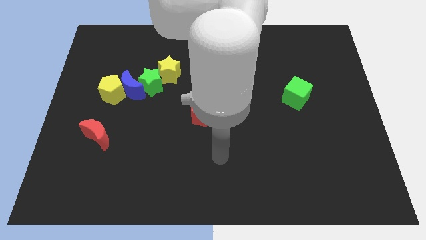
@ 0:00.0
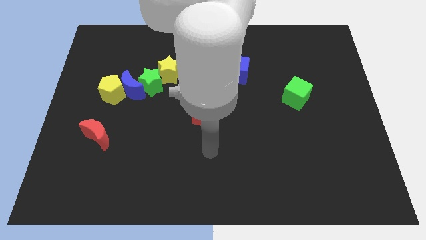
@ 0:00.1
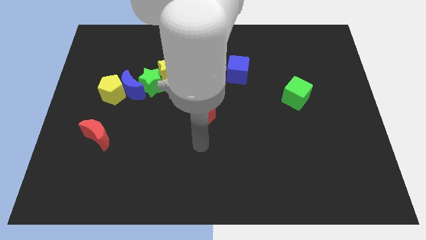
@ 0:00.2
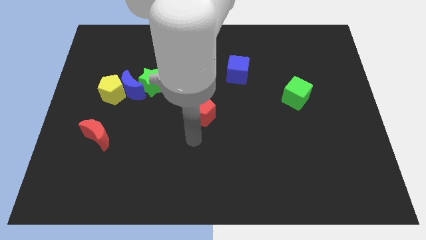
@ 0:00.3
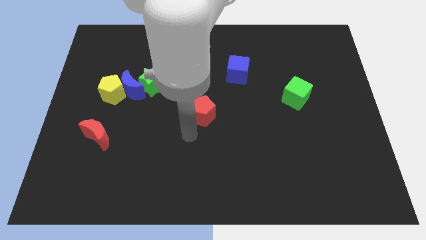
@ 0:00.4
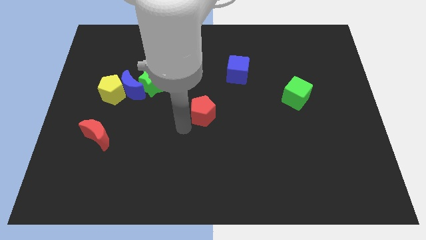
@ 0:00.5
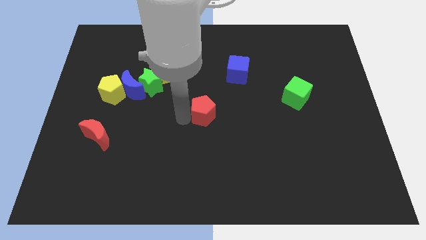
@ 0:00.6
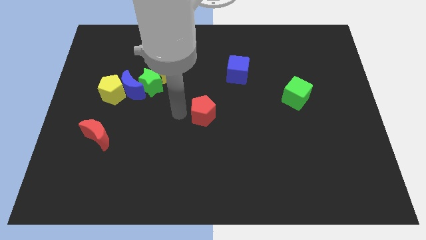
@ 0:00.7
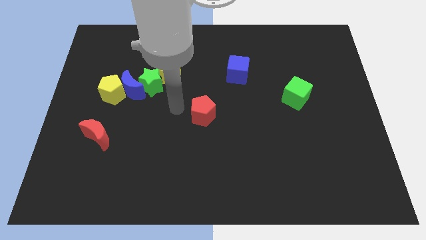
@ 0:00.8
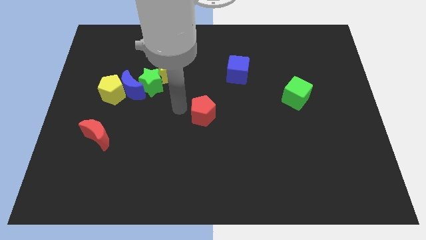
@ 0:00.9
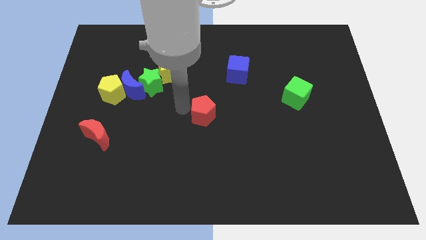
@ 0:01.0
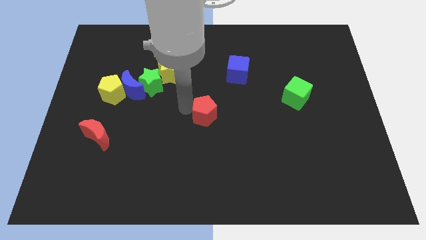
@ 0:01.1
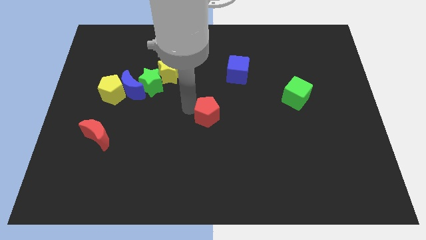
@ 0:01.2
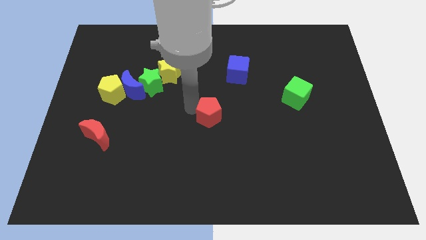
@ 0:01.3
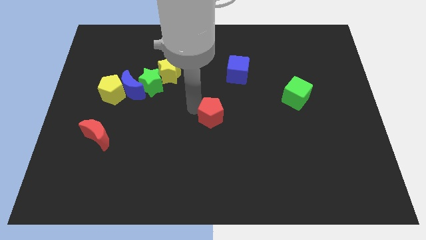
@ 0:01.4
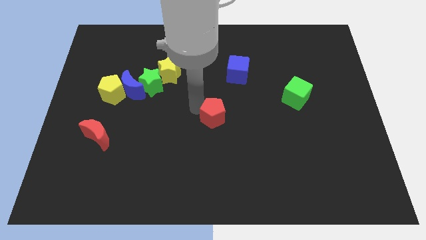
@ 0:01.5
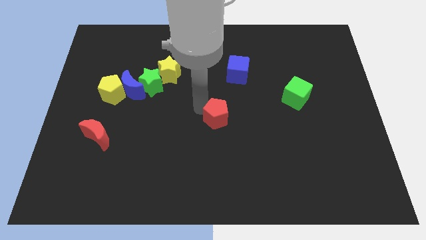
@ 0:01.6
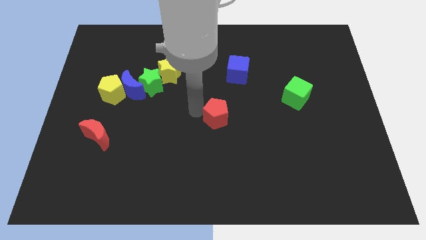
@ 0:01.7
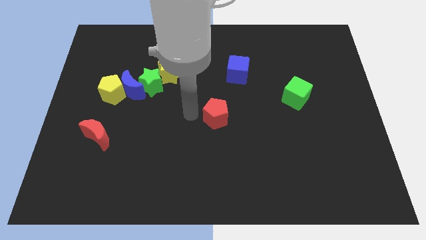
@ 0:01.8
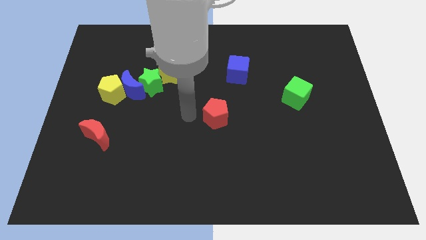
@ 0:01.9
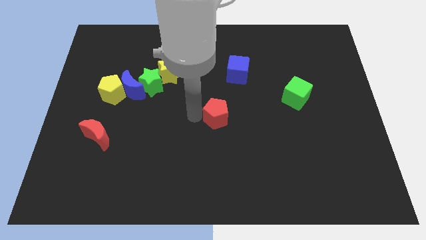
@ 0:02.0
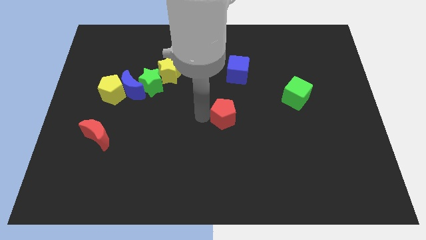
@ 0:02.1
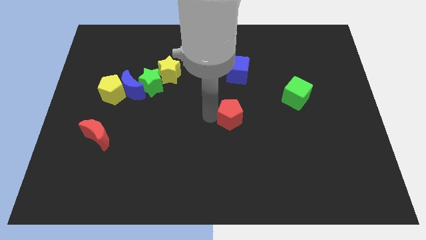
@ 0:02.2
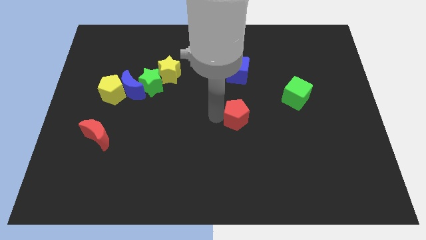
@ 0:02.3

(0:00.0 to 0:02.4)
slightly move the red pentagon right

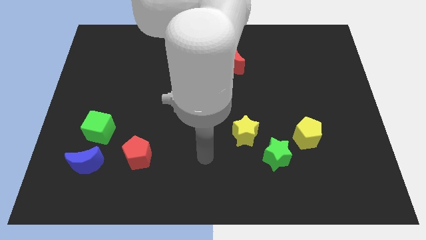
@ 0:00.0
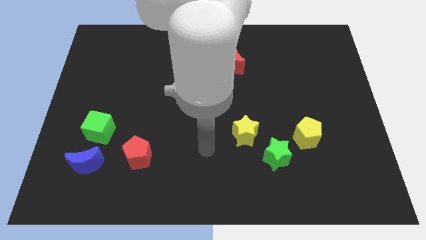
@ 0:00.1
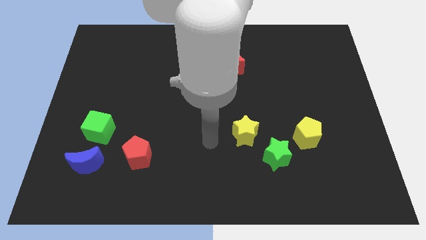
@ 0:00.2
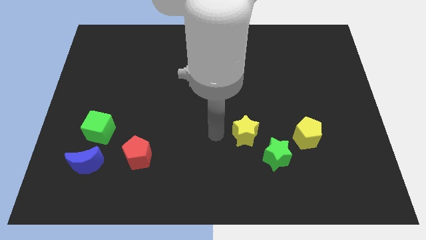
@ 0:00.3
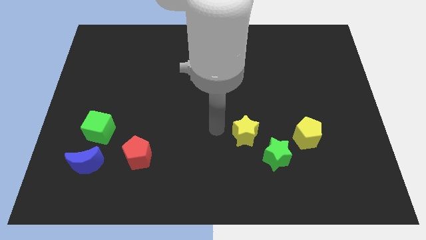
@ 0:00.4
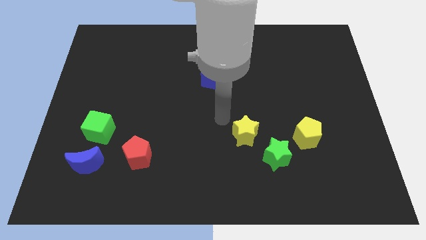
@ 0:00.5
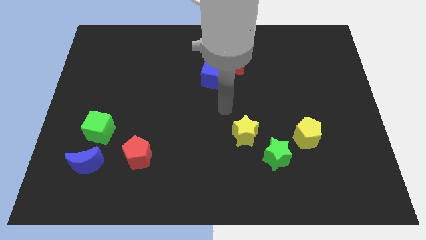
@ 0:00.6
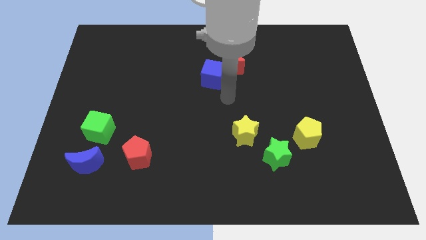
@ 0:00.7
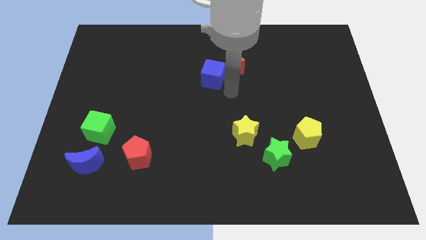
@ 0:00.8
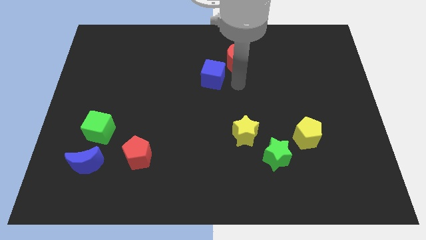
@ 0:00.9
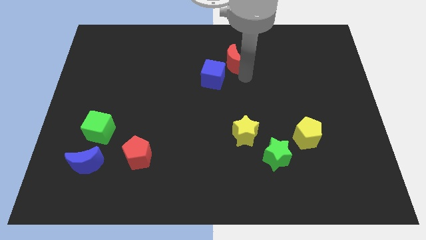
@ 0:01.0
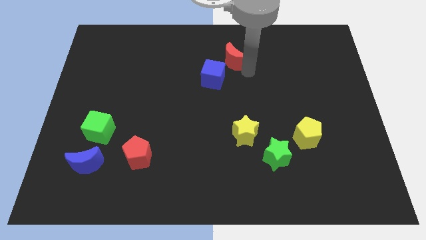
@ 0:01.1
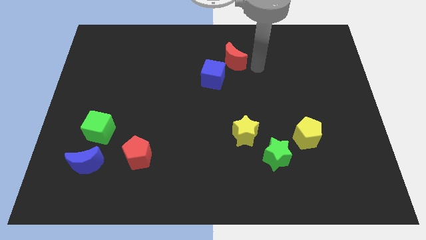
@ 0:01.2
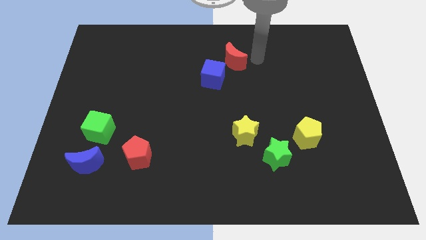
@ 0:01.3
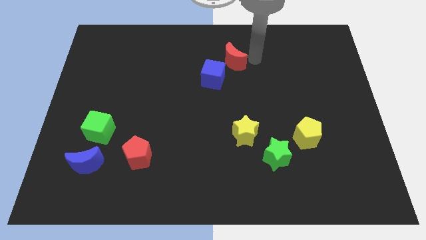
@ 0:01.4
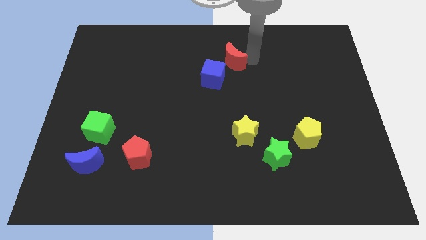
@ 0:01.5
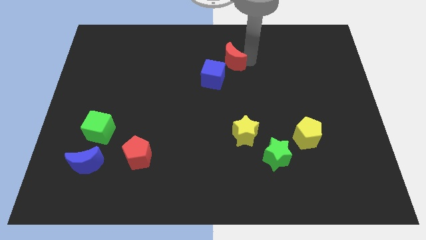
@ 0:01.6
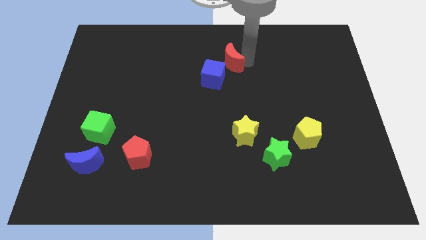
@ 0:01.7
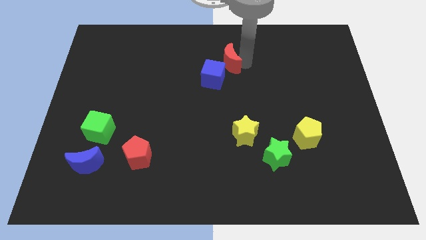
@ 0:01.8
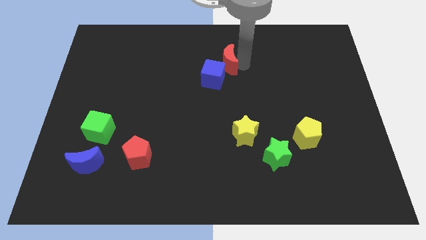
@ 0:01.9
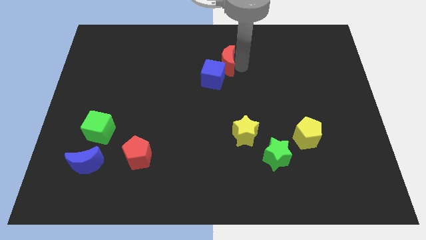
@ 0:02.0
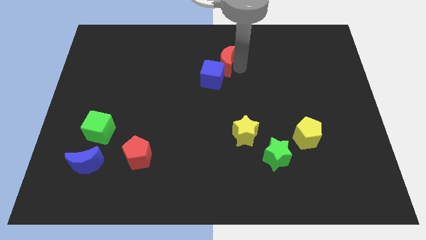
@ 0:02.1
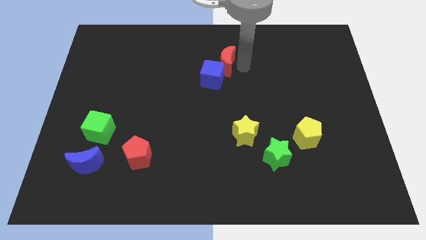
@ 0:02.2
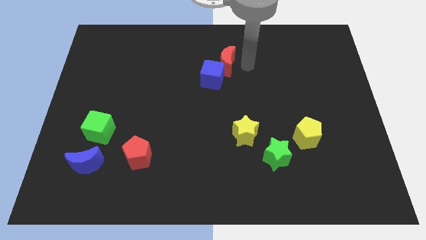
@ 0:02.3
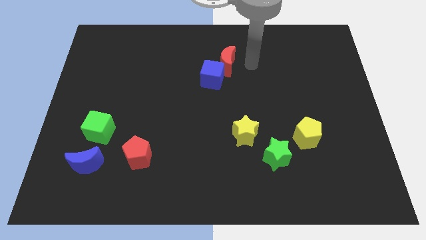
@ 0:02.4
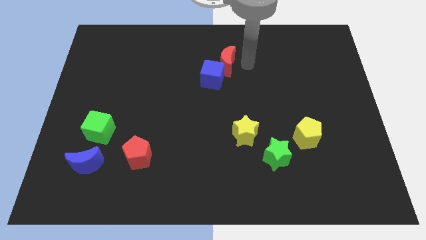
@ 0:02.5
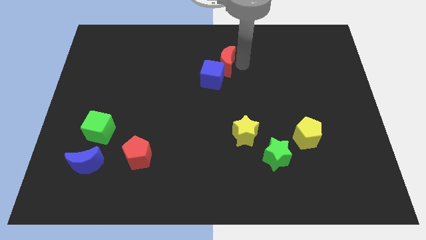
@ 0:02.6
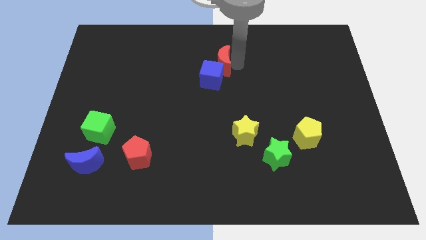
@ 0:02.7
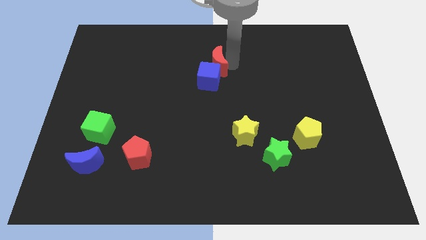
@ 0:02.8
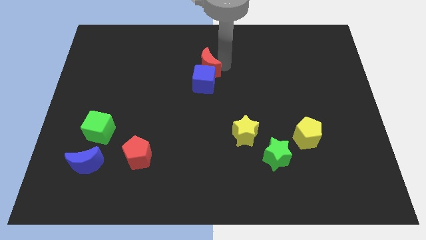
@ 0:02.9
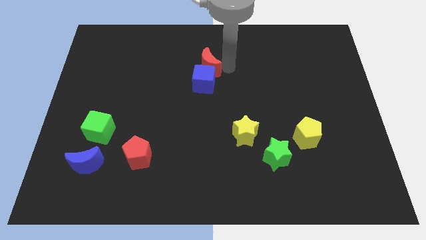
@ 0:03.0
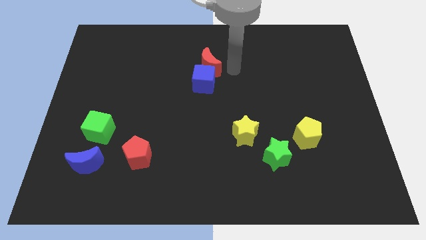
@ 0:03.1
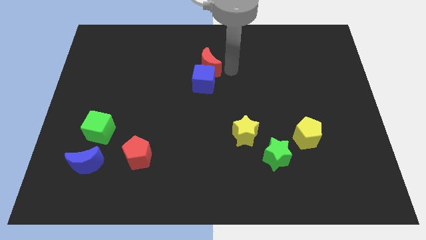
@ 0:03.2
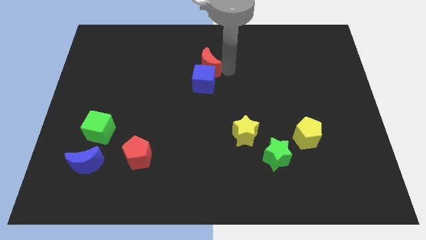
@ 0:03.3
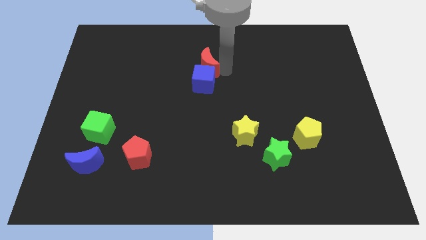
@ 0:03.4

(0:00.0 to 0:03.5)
push the red moon to the left slightly

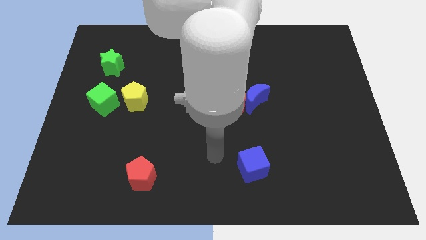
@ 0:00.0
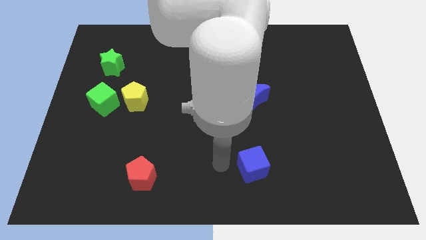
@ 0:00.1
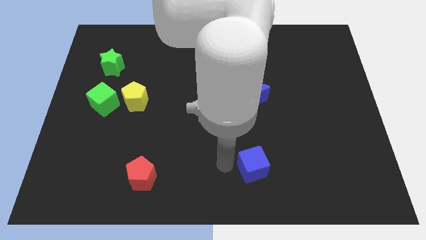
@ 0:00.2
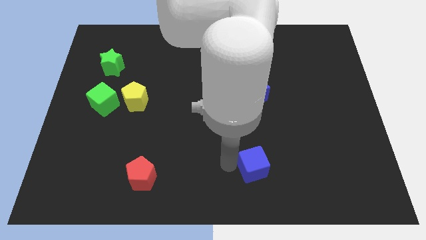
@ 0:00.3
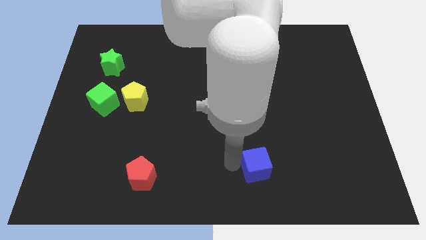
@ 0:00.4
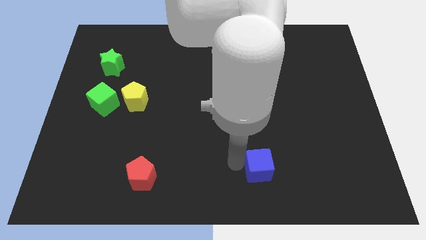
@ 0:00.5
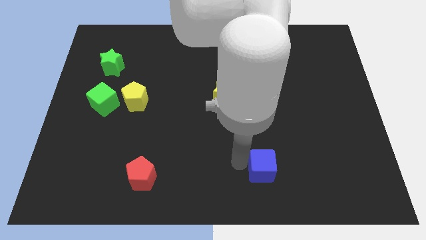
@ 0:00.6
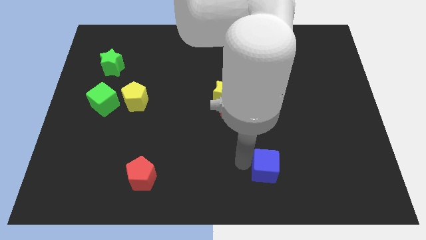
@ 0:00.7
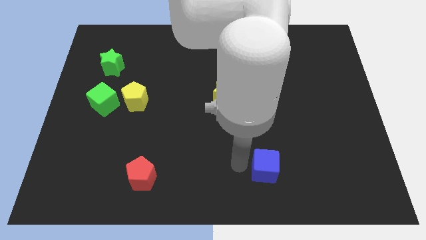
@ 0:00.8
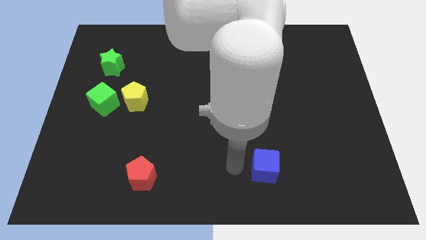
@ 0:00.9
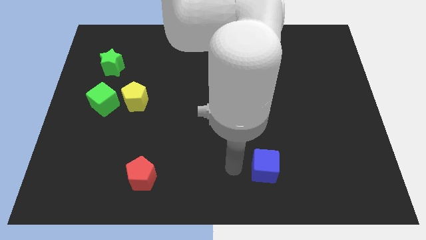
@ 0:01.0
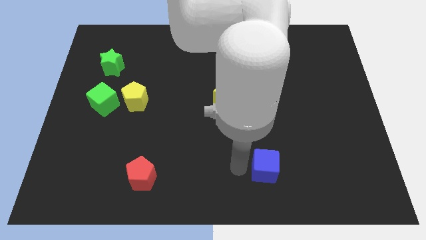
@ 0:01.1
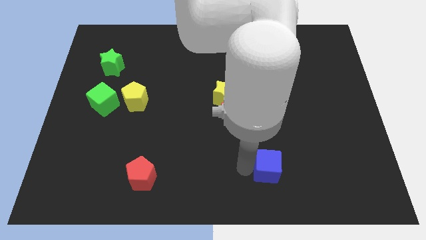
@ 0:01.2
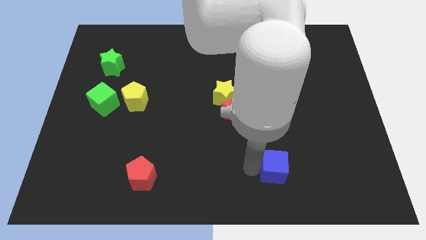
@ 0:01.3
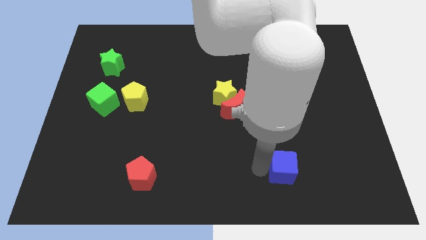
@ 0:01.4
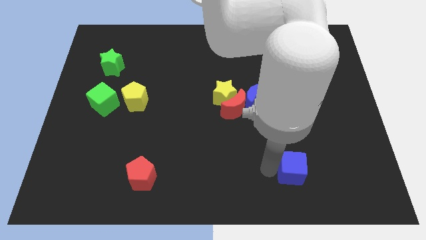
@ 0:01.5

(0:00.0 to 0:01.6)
slightly push the blue cube to the right

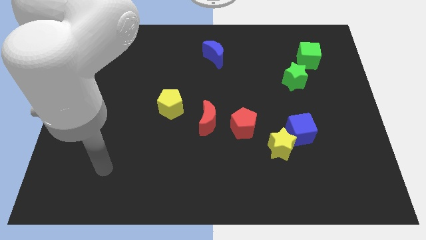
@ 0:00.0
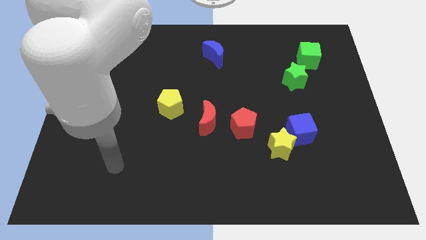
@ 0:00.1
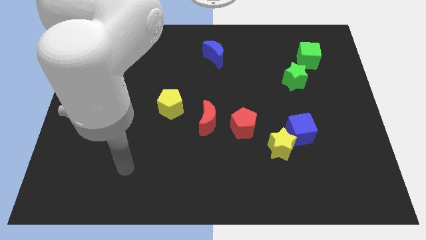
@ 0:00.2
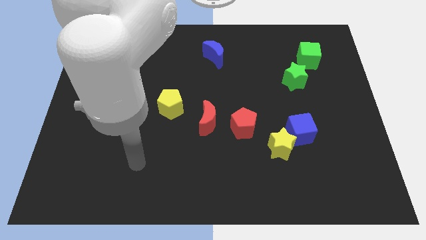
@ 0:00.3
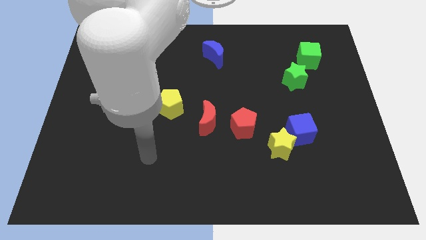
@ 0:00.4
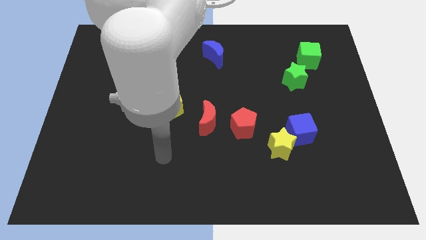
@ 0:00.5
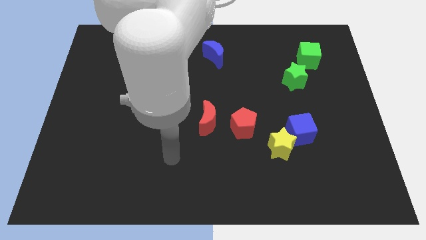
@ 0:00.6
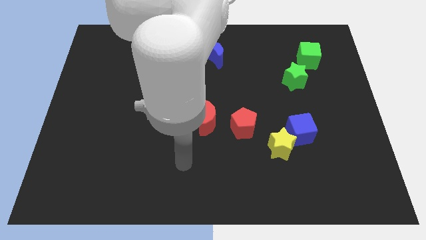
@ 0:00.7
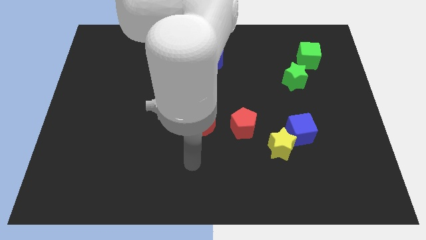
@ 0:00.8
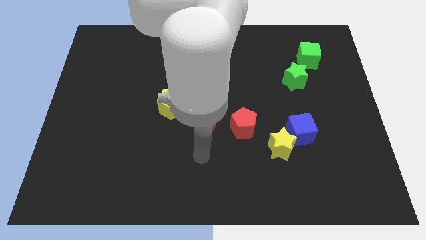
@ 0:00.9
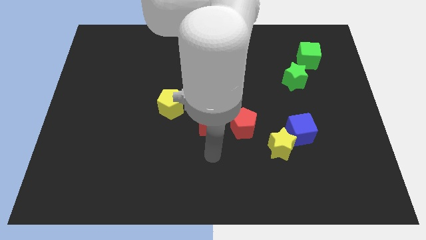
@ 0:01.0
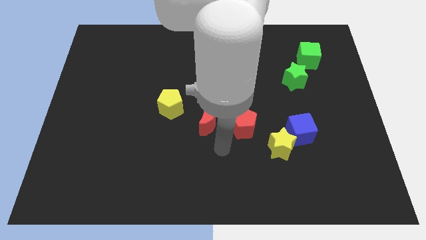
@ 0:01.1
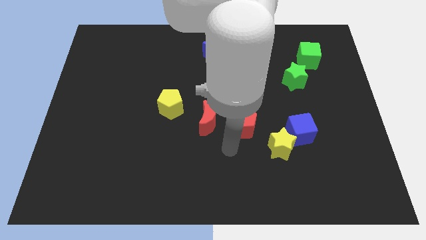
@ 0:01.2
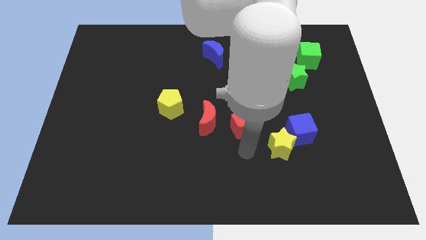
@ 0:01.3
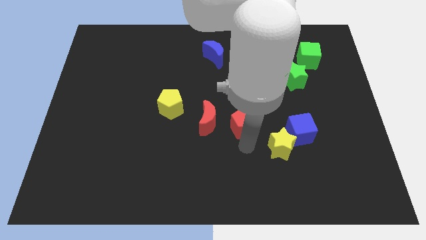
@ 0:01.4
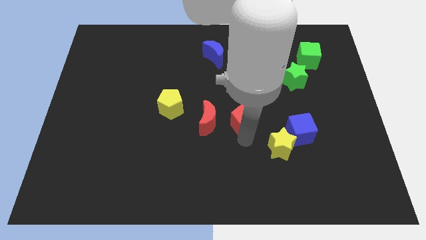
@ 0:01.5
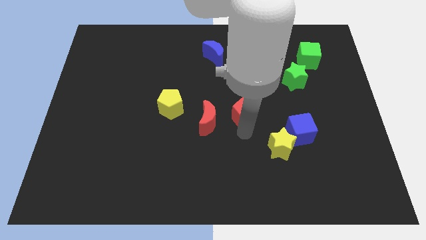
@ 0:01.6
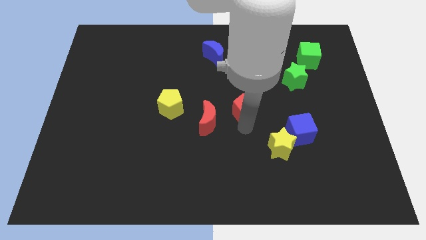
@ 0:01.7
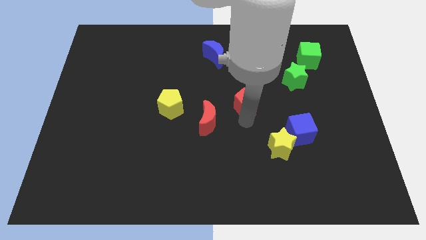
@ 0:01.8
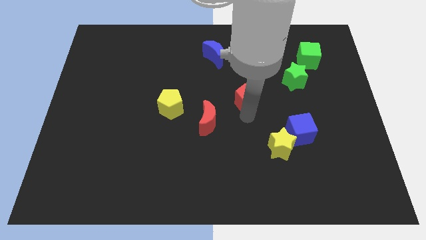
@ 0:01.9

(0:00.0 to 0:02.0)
slightly push the red pentagon up
